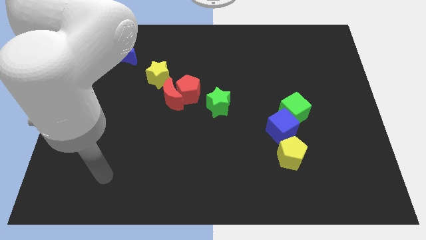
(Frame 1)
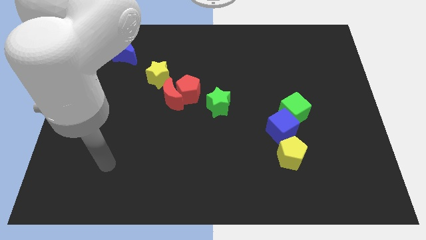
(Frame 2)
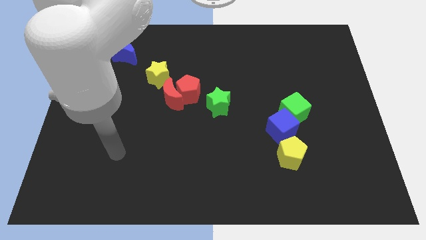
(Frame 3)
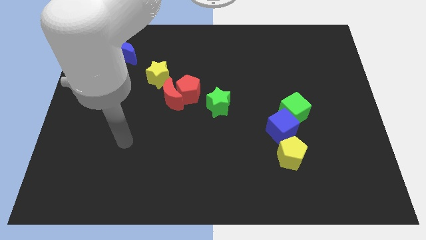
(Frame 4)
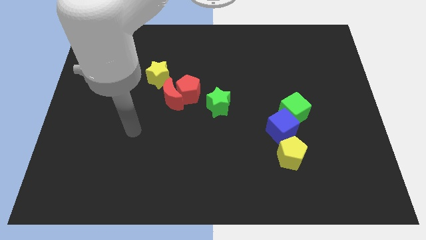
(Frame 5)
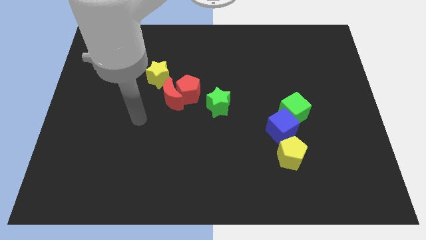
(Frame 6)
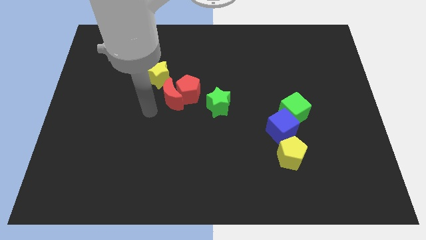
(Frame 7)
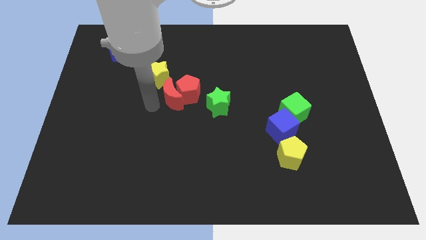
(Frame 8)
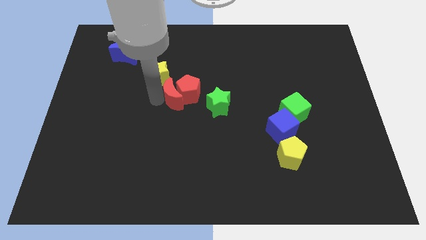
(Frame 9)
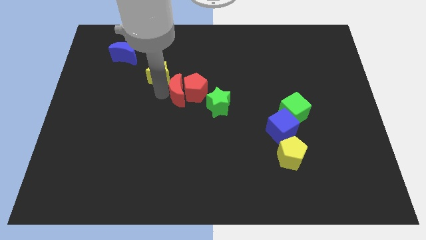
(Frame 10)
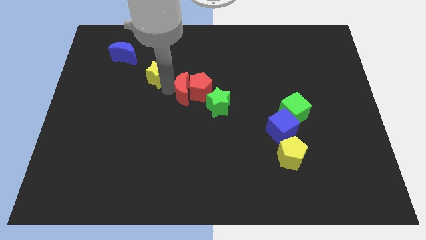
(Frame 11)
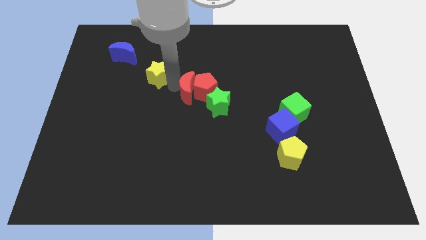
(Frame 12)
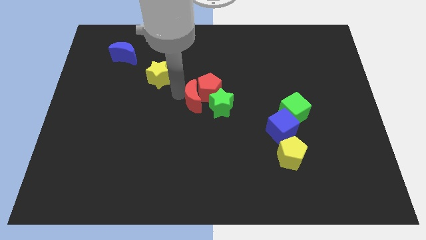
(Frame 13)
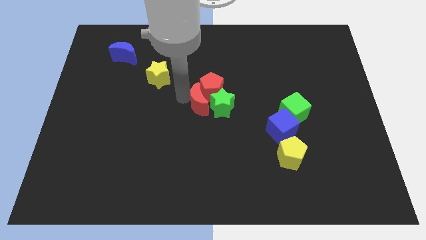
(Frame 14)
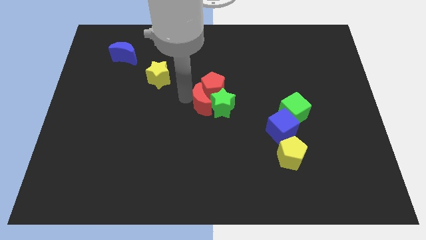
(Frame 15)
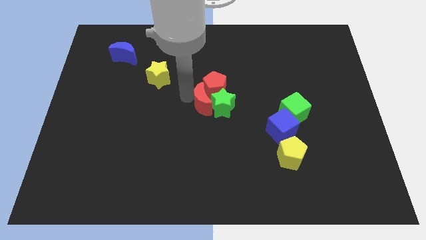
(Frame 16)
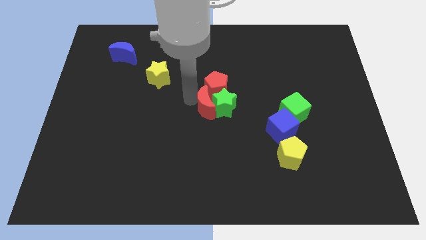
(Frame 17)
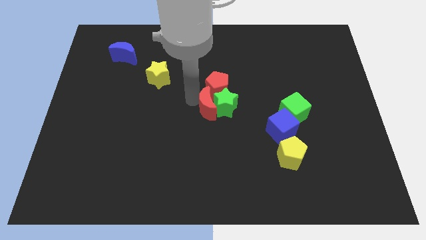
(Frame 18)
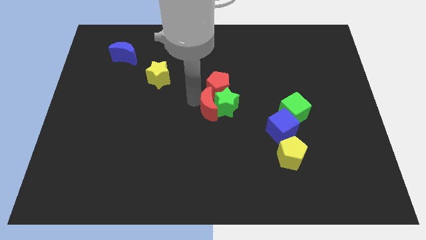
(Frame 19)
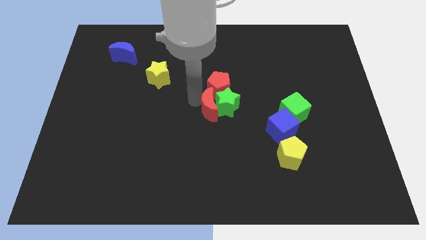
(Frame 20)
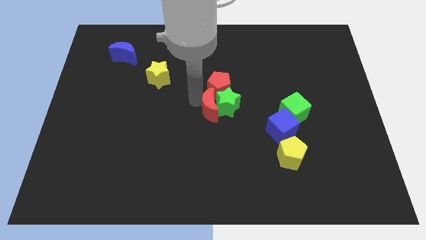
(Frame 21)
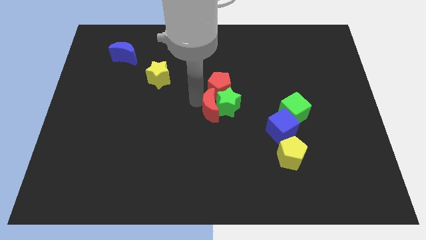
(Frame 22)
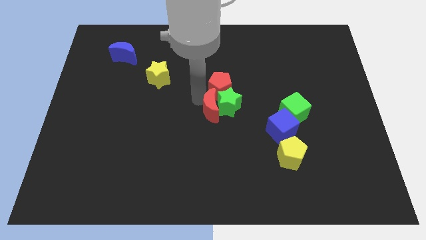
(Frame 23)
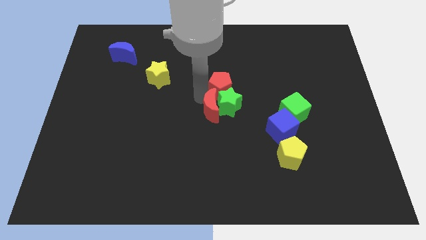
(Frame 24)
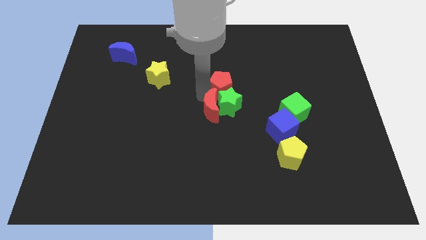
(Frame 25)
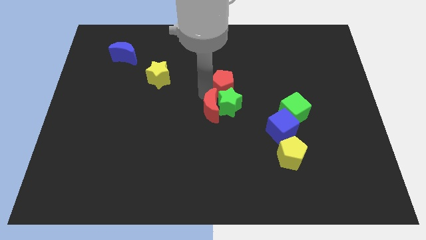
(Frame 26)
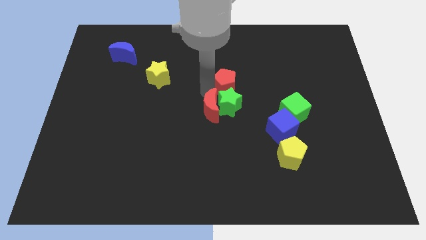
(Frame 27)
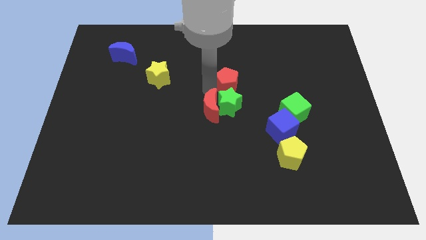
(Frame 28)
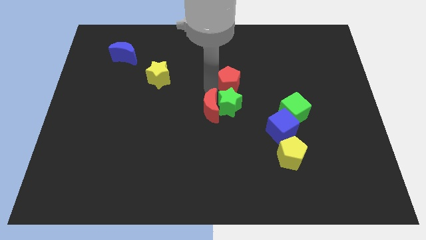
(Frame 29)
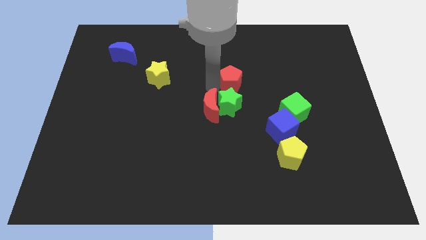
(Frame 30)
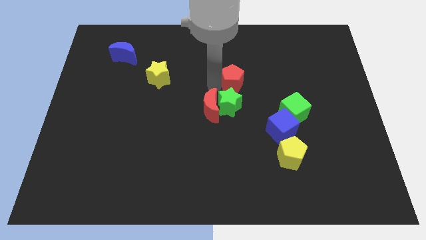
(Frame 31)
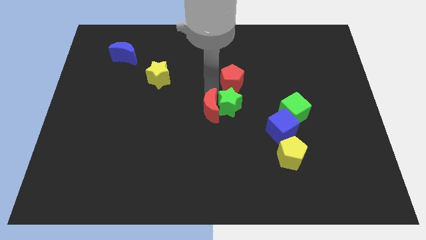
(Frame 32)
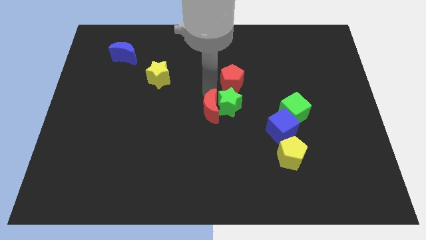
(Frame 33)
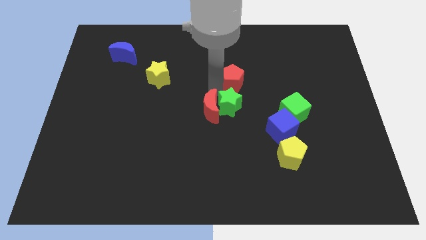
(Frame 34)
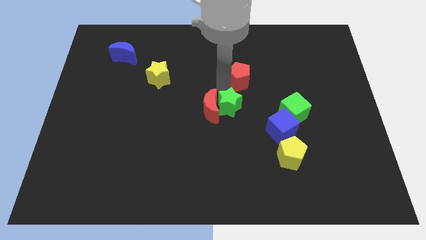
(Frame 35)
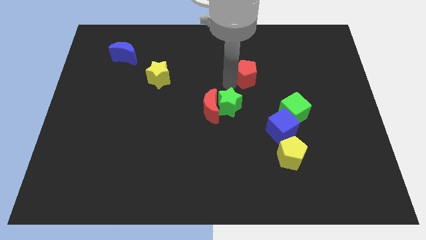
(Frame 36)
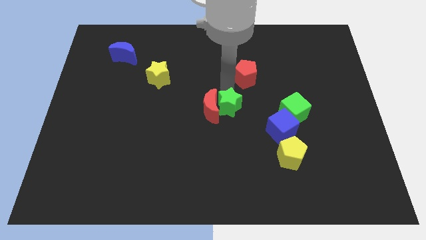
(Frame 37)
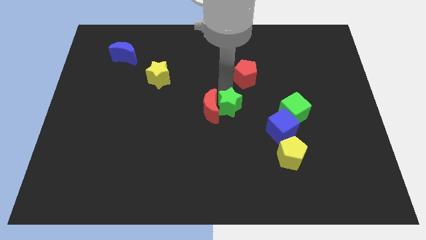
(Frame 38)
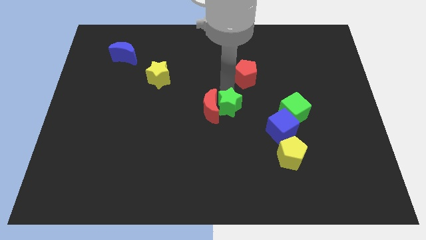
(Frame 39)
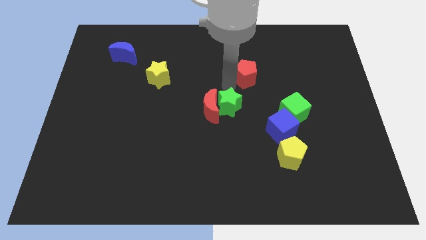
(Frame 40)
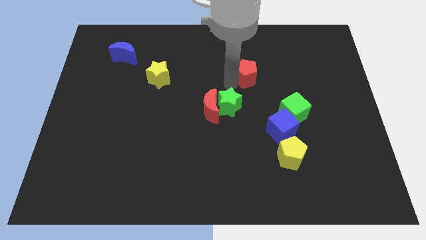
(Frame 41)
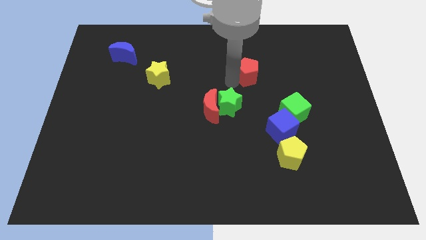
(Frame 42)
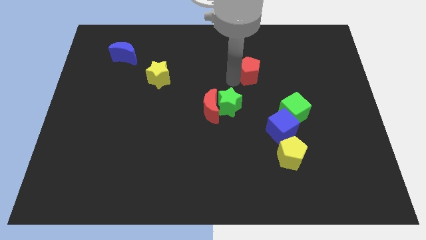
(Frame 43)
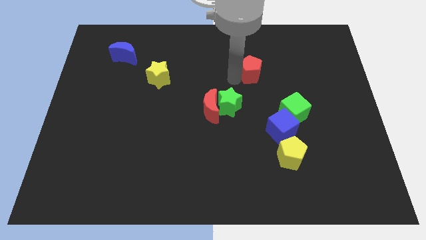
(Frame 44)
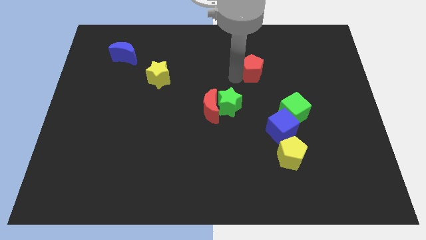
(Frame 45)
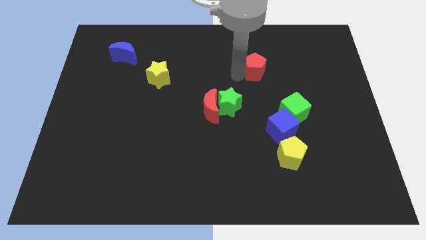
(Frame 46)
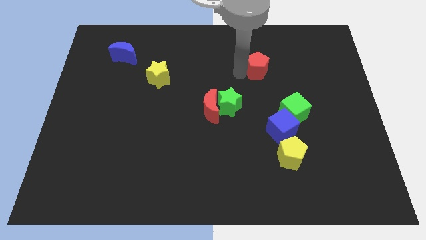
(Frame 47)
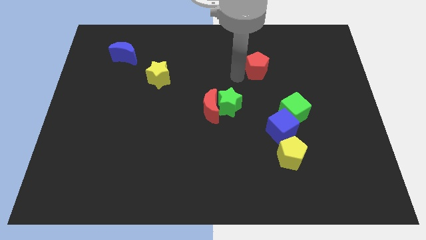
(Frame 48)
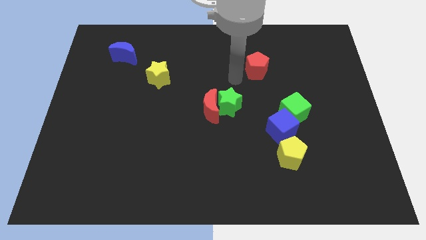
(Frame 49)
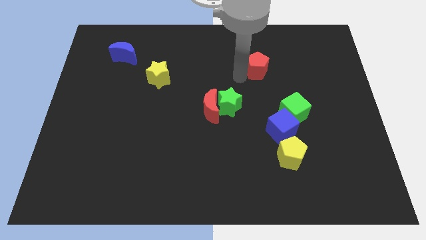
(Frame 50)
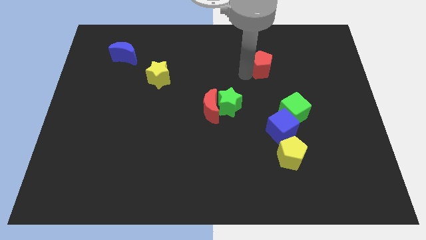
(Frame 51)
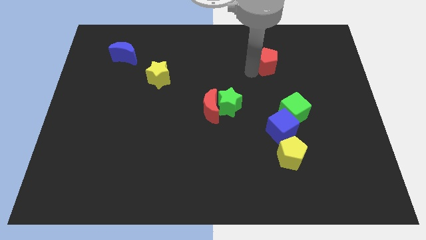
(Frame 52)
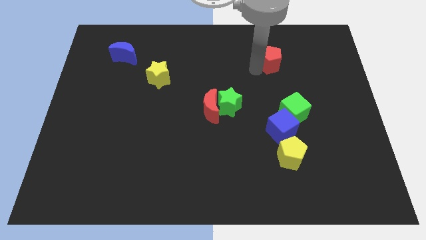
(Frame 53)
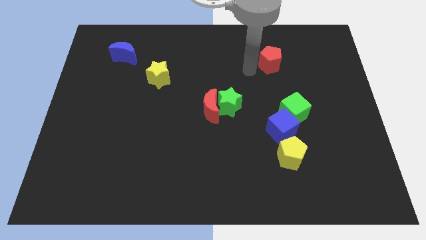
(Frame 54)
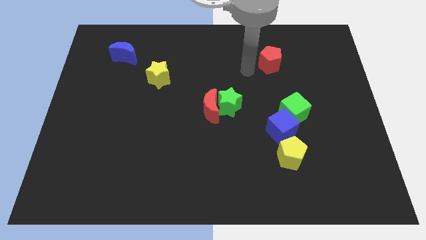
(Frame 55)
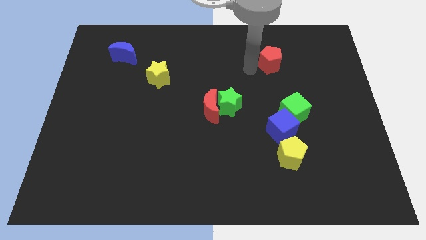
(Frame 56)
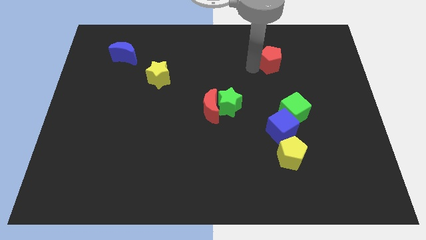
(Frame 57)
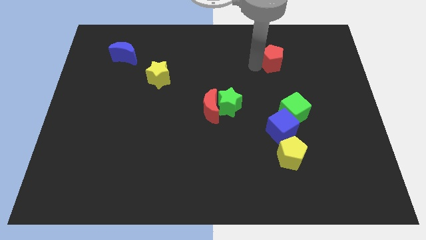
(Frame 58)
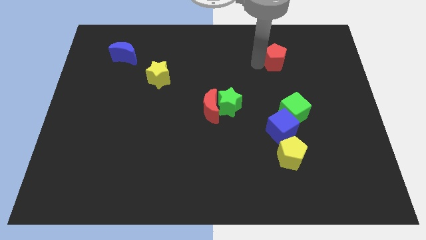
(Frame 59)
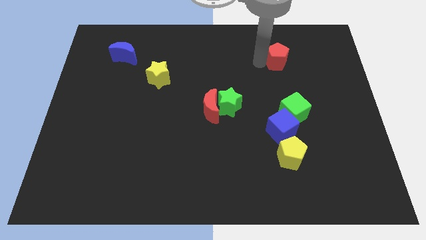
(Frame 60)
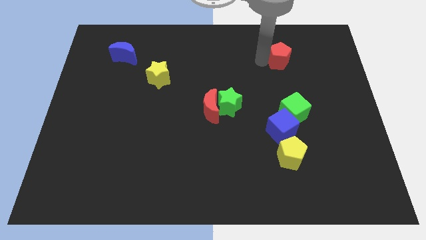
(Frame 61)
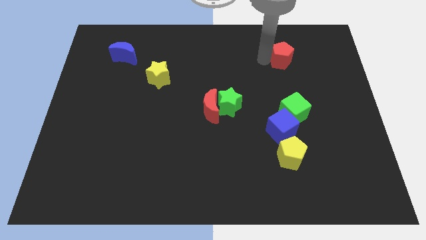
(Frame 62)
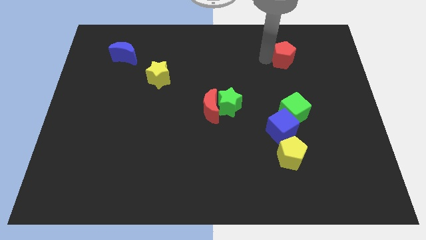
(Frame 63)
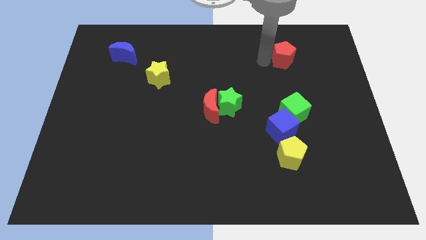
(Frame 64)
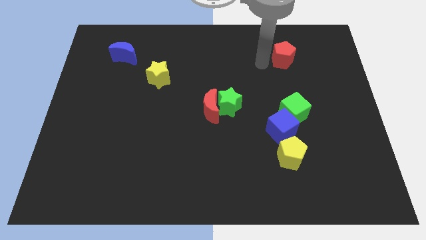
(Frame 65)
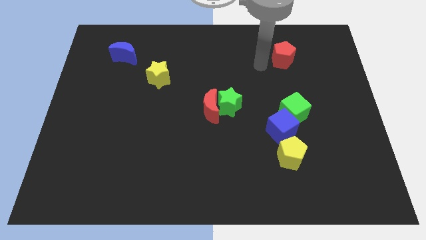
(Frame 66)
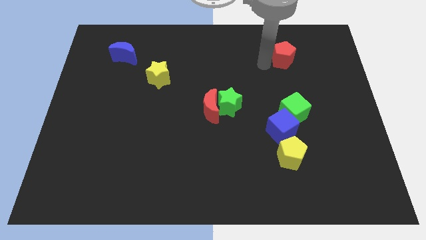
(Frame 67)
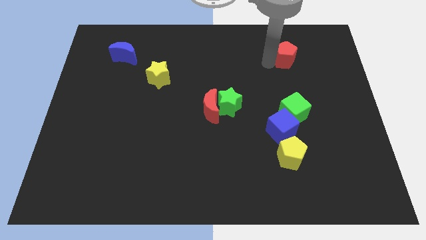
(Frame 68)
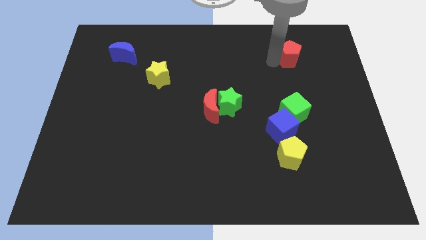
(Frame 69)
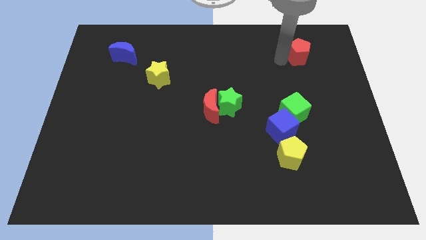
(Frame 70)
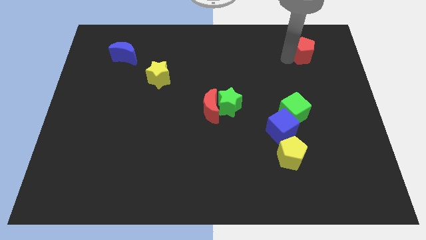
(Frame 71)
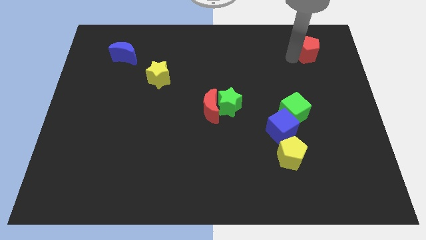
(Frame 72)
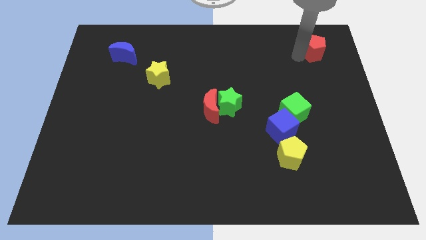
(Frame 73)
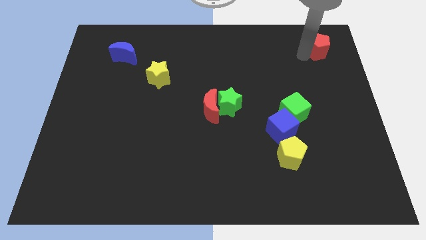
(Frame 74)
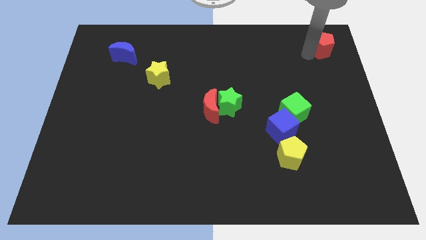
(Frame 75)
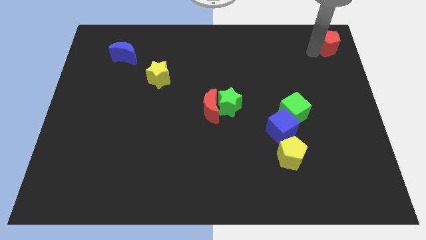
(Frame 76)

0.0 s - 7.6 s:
put the red pentagon to the top right of the board

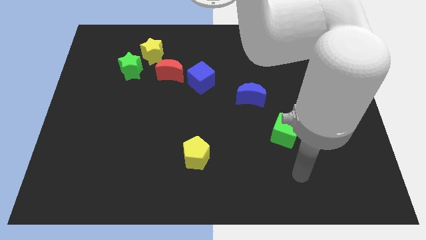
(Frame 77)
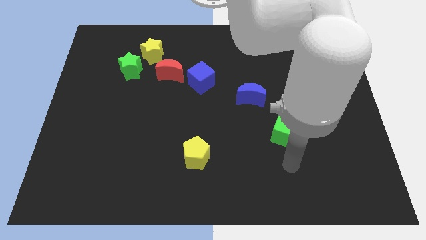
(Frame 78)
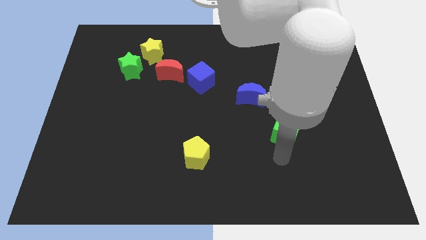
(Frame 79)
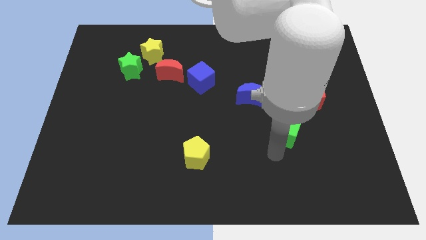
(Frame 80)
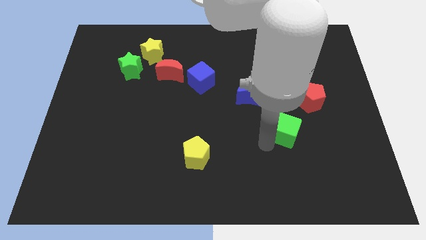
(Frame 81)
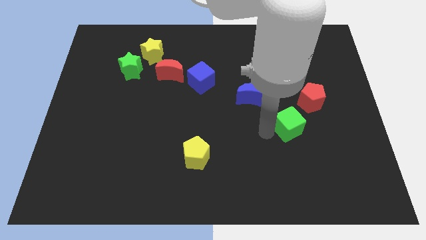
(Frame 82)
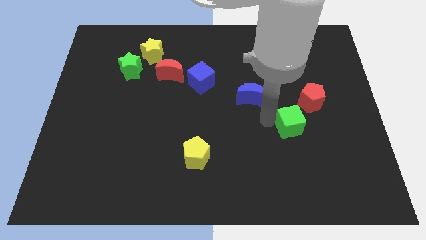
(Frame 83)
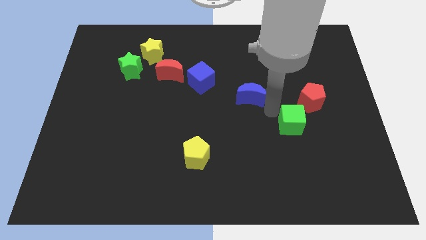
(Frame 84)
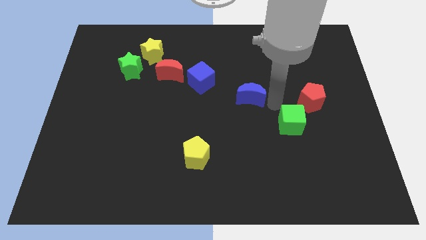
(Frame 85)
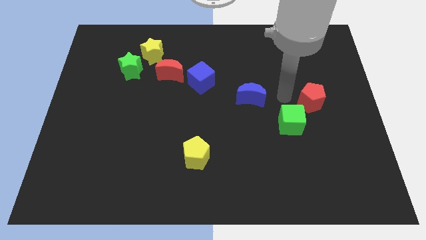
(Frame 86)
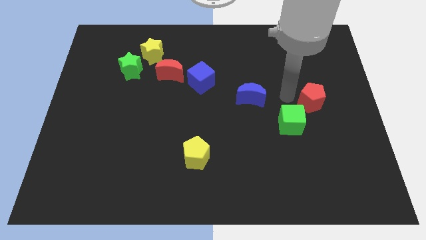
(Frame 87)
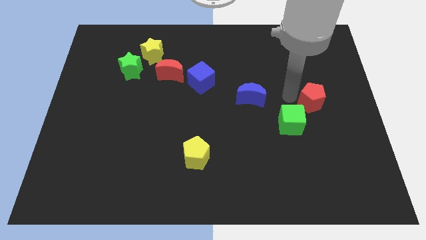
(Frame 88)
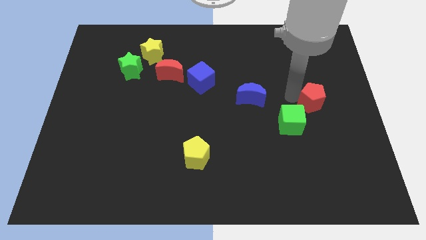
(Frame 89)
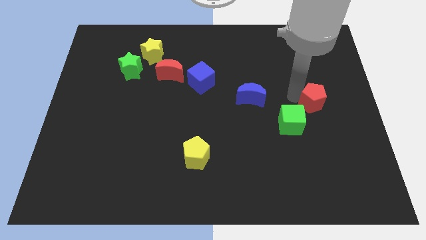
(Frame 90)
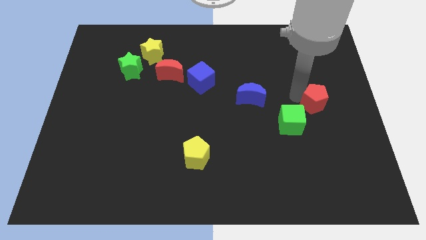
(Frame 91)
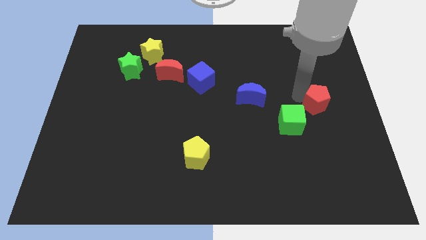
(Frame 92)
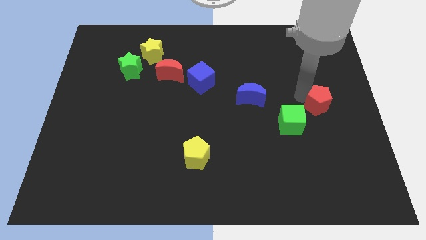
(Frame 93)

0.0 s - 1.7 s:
put the red pentagon to the right side of the board
